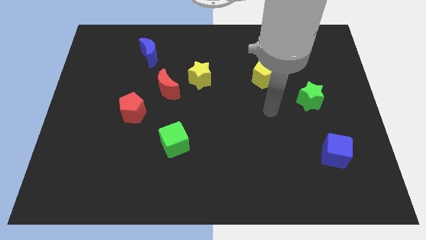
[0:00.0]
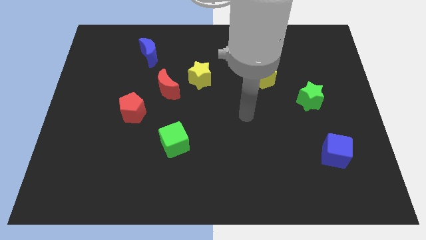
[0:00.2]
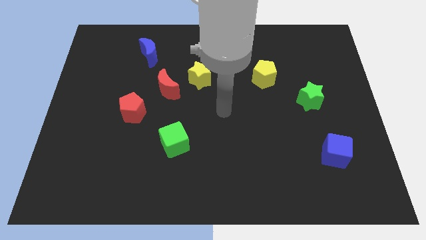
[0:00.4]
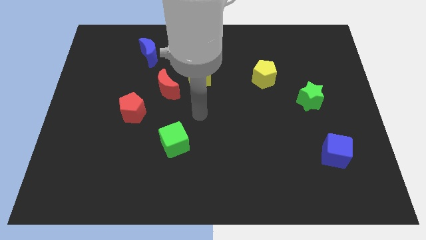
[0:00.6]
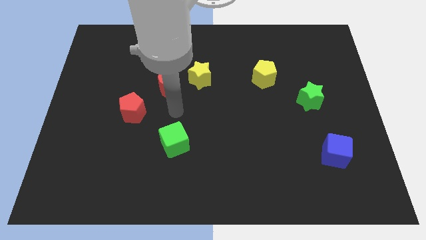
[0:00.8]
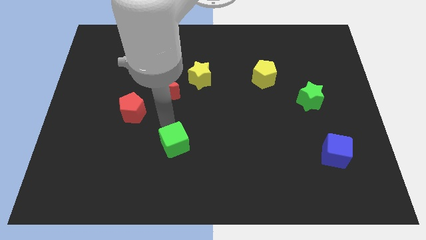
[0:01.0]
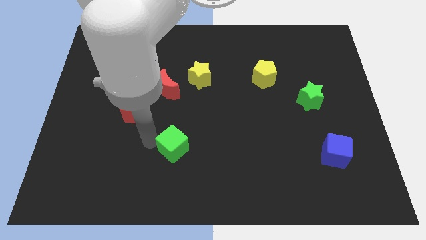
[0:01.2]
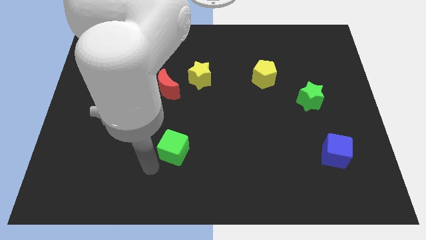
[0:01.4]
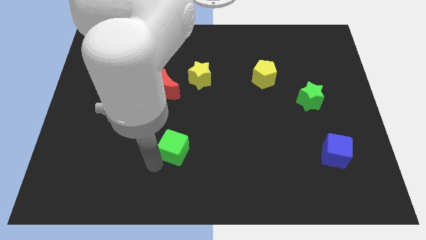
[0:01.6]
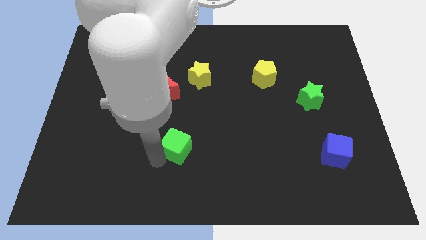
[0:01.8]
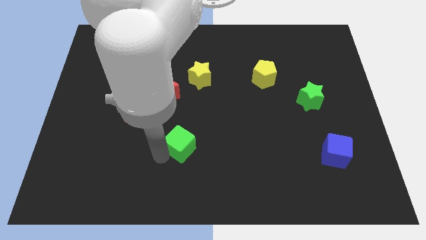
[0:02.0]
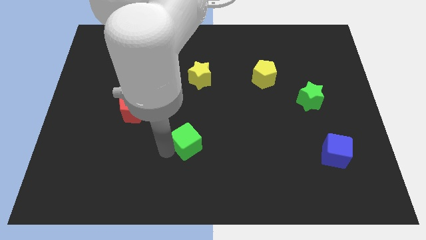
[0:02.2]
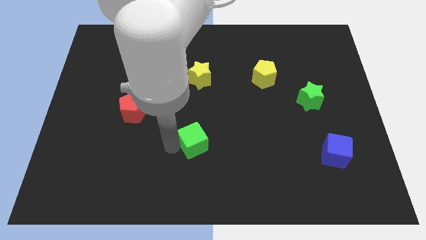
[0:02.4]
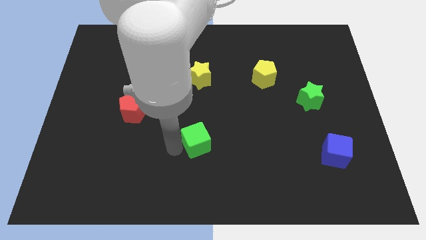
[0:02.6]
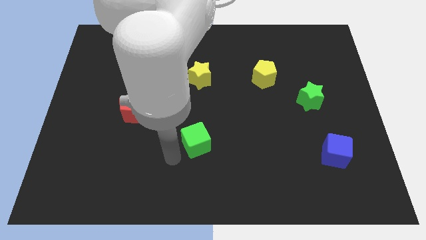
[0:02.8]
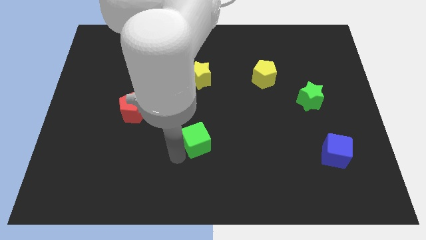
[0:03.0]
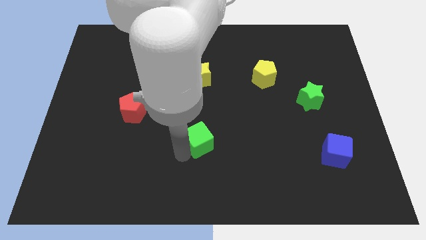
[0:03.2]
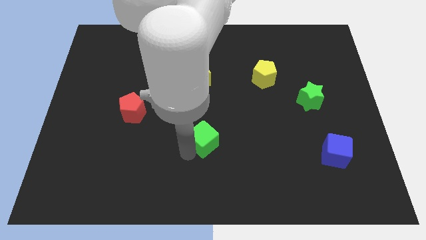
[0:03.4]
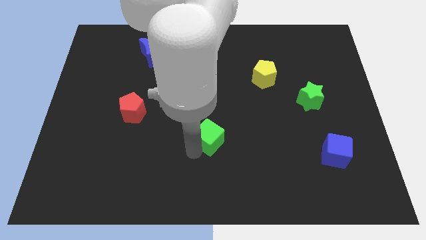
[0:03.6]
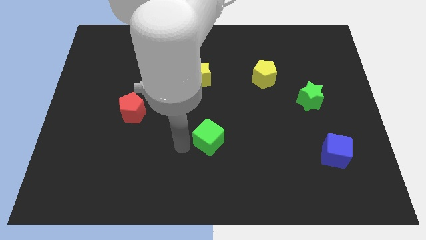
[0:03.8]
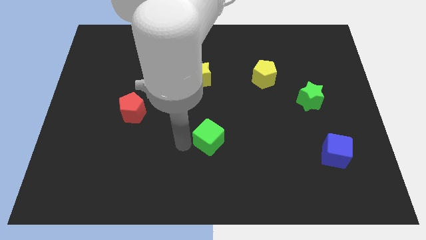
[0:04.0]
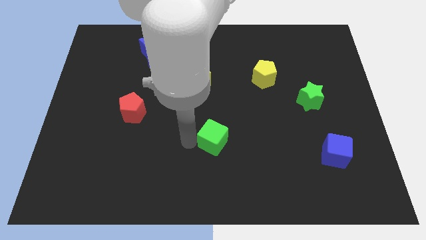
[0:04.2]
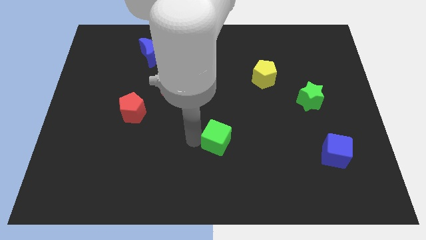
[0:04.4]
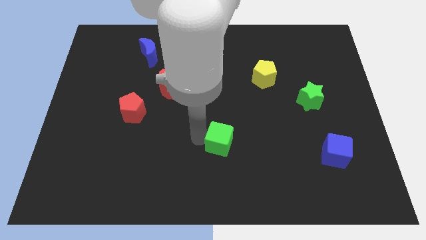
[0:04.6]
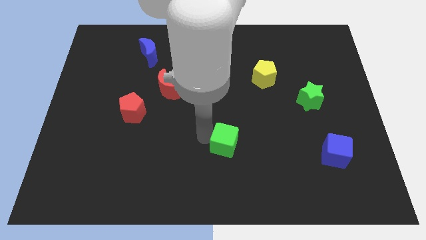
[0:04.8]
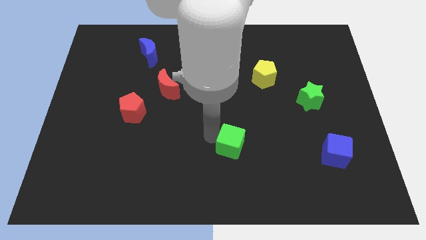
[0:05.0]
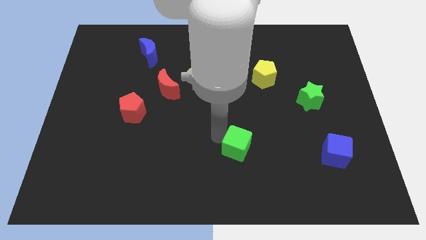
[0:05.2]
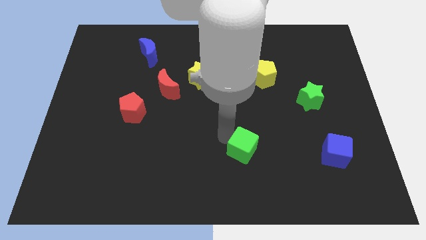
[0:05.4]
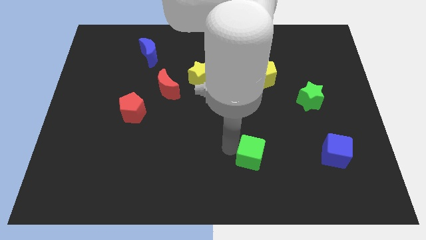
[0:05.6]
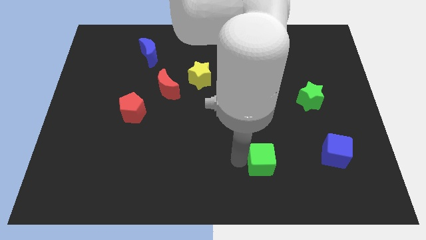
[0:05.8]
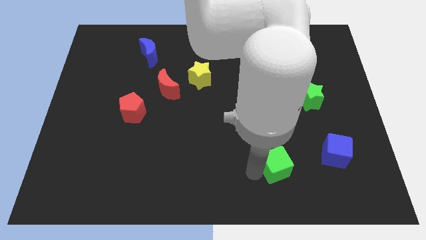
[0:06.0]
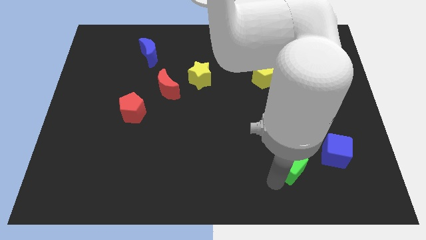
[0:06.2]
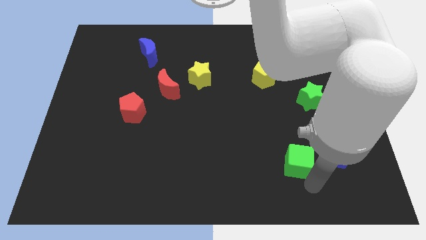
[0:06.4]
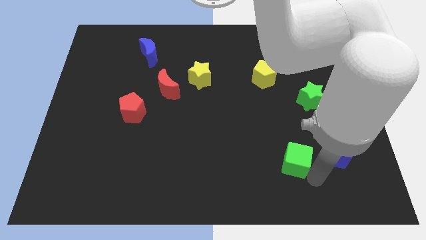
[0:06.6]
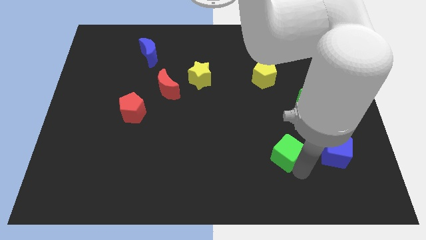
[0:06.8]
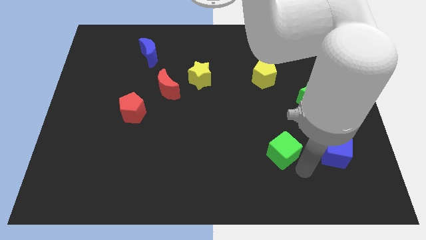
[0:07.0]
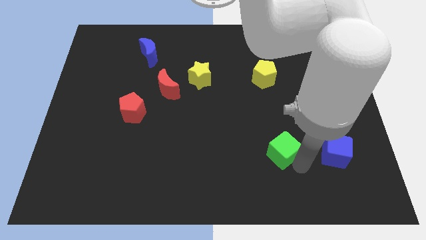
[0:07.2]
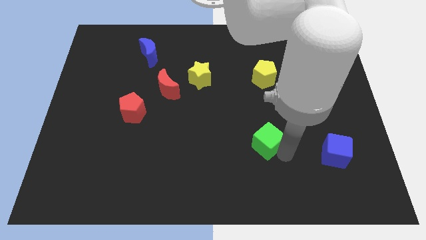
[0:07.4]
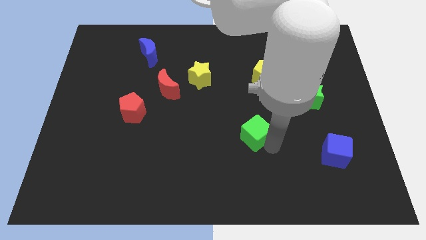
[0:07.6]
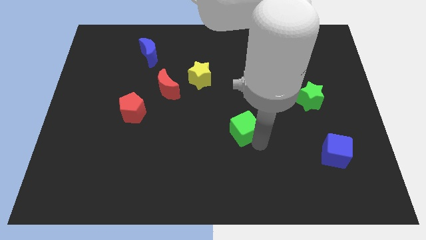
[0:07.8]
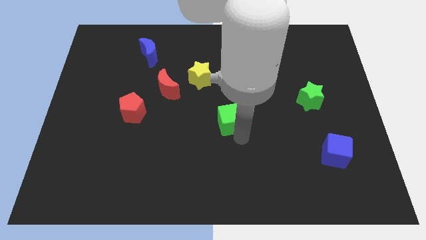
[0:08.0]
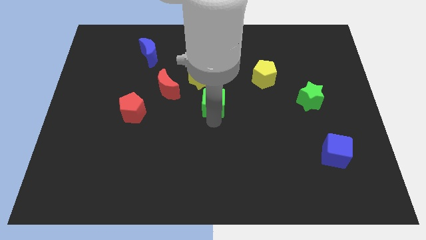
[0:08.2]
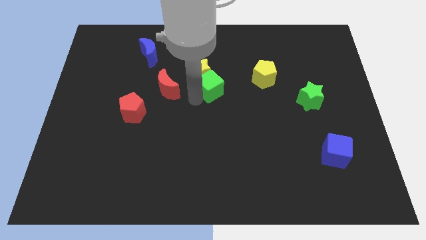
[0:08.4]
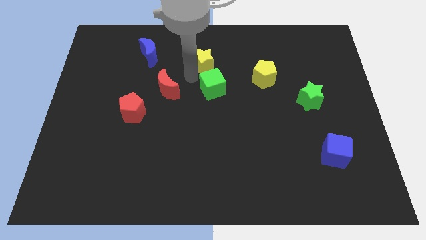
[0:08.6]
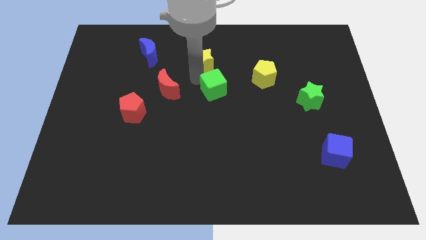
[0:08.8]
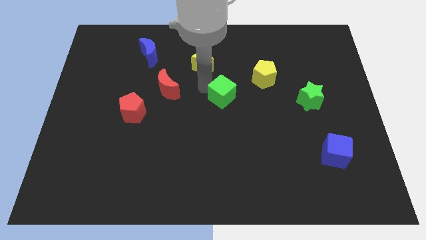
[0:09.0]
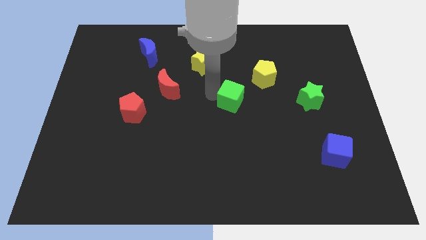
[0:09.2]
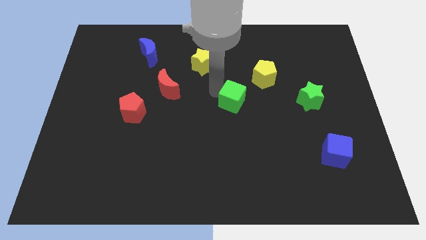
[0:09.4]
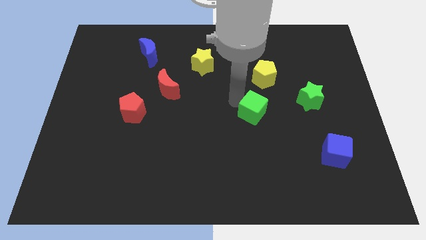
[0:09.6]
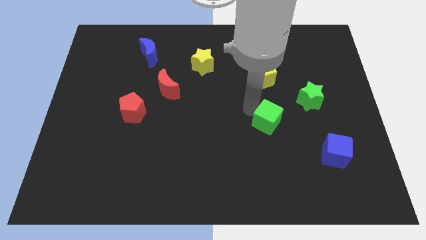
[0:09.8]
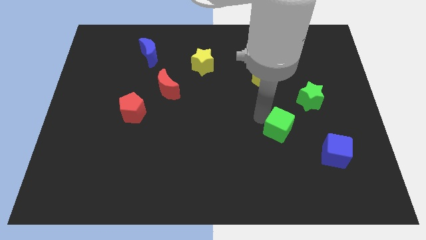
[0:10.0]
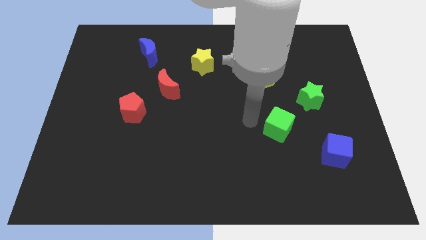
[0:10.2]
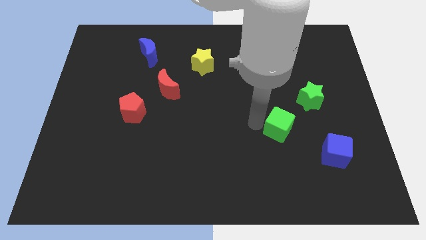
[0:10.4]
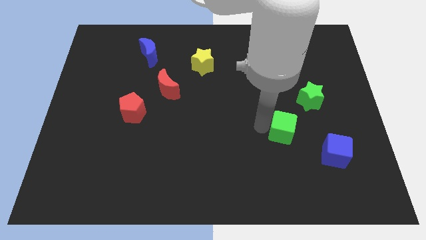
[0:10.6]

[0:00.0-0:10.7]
move the green cube diagonally up and to the left of the blue cube

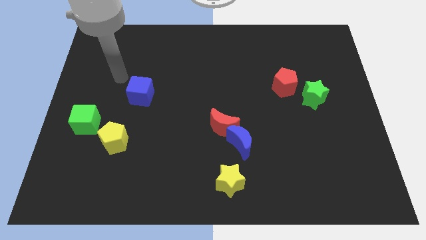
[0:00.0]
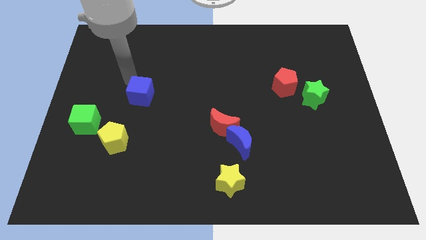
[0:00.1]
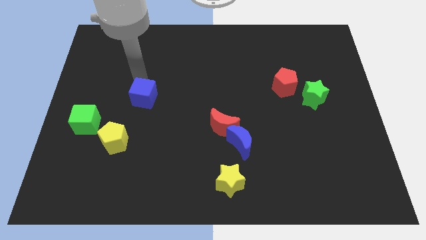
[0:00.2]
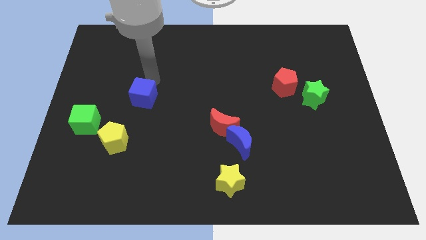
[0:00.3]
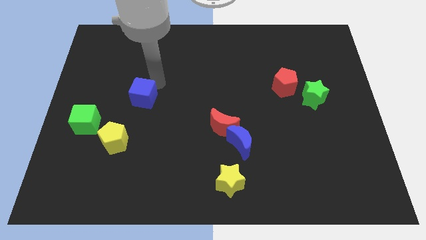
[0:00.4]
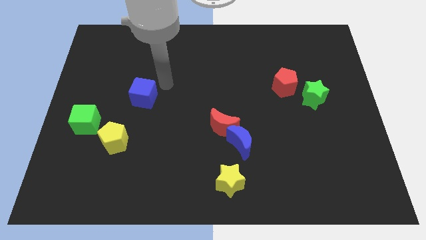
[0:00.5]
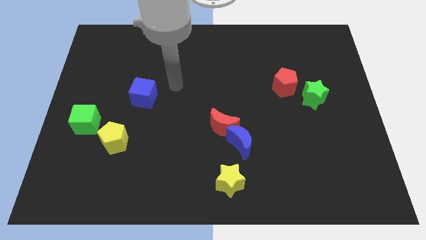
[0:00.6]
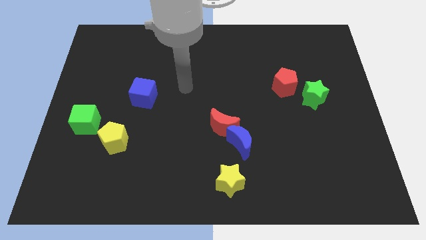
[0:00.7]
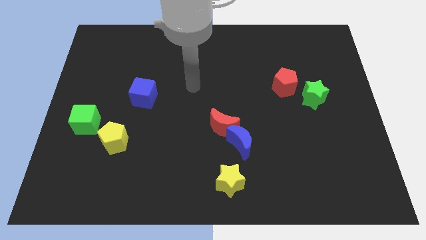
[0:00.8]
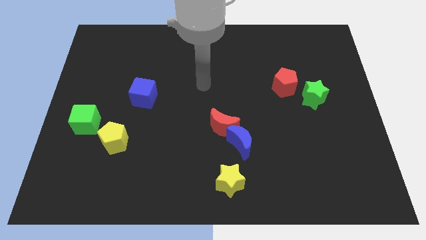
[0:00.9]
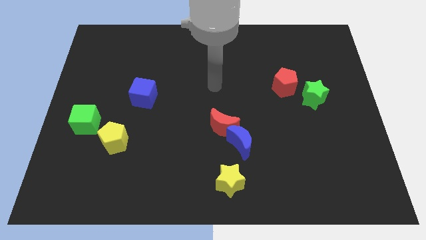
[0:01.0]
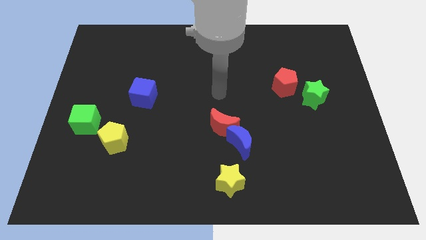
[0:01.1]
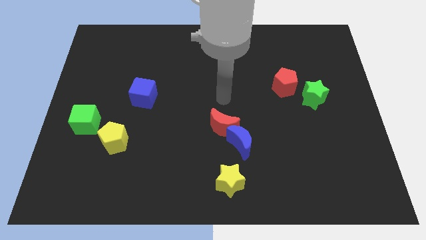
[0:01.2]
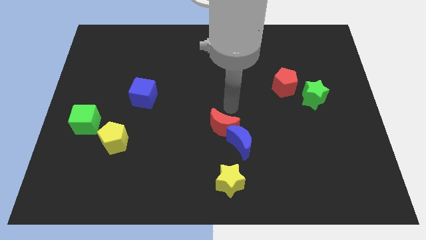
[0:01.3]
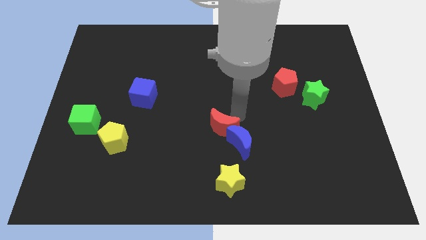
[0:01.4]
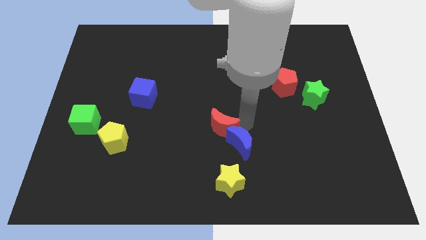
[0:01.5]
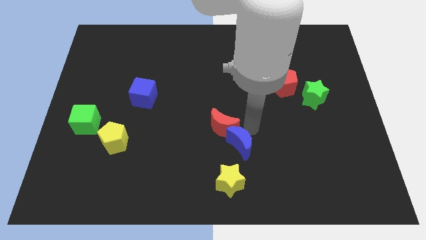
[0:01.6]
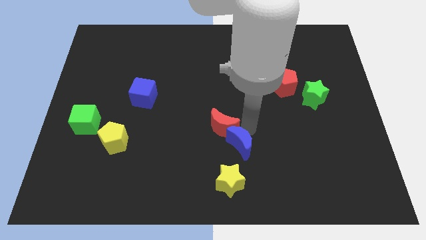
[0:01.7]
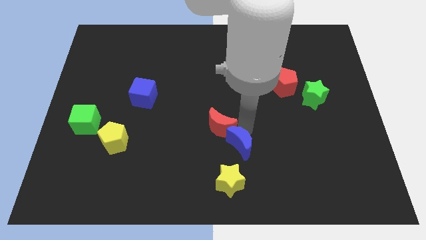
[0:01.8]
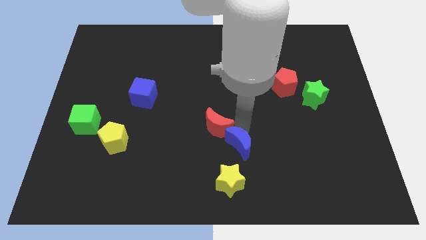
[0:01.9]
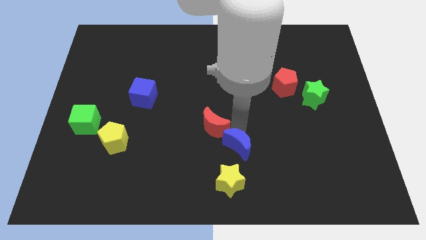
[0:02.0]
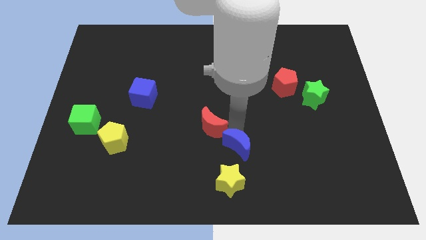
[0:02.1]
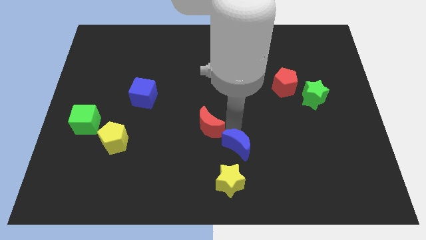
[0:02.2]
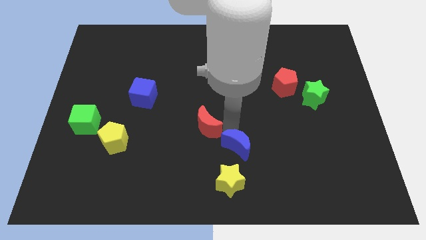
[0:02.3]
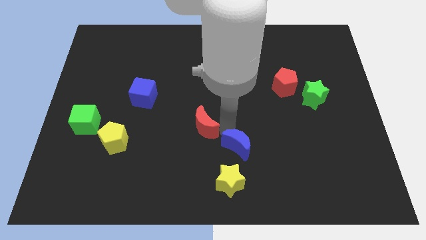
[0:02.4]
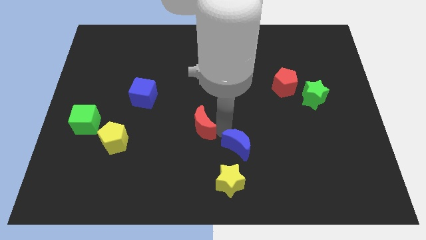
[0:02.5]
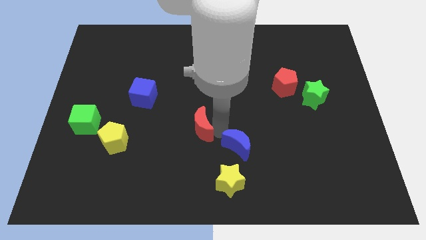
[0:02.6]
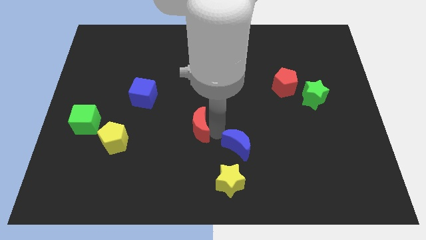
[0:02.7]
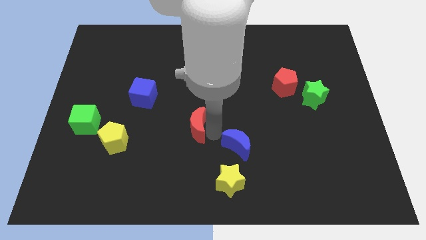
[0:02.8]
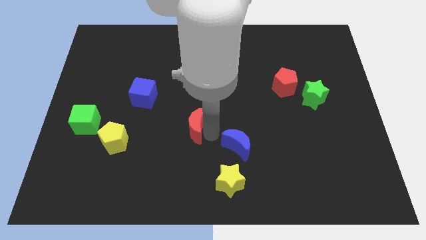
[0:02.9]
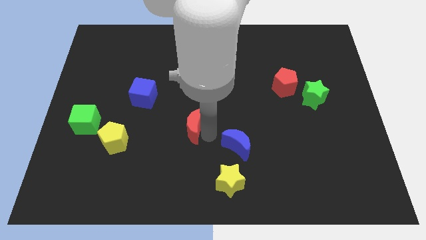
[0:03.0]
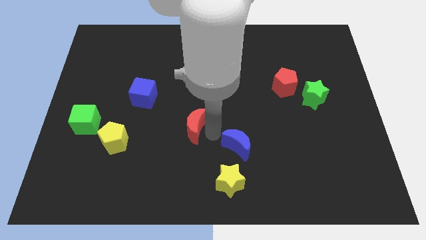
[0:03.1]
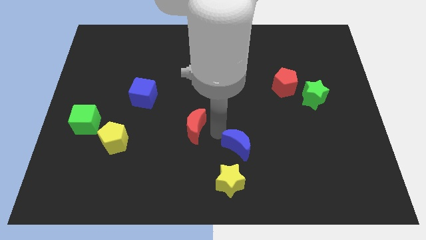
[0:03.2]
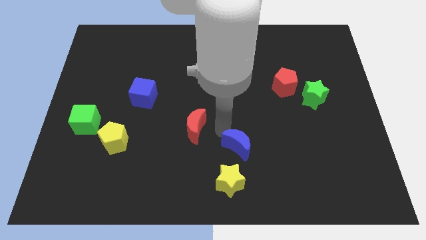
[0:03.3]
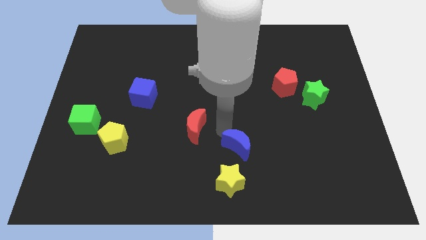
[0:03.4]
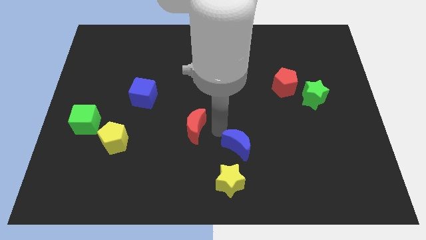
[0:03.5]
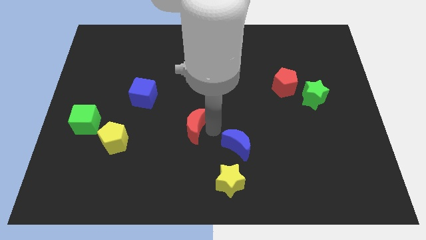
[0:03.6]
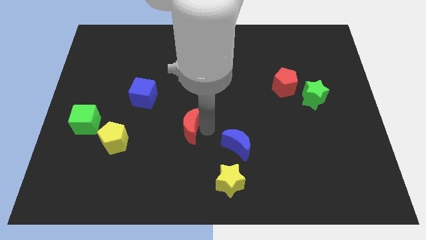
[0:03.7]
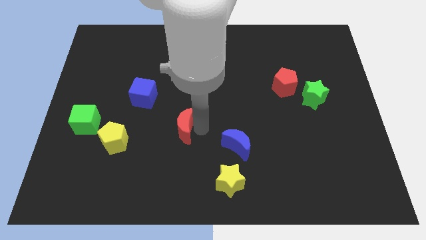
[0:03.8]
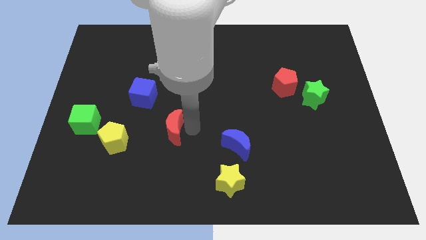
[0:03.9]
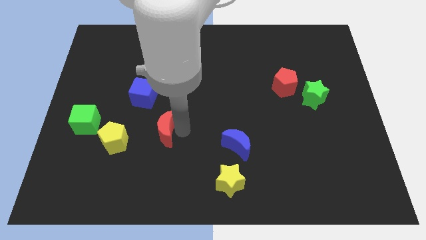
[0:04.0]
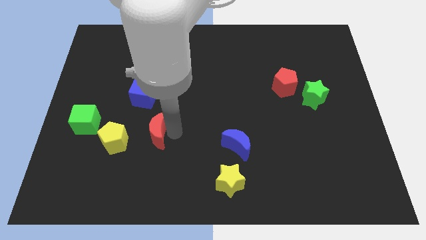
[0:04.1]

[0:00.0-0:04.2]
put the red moon to the top right side of the yellow pentagon
